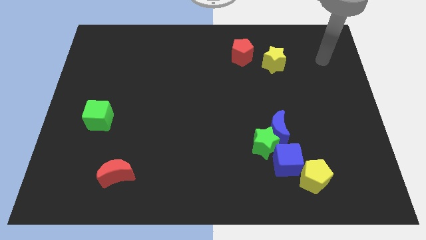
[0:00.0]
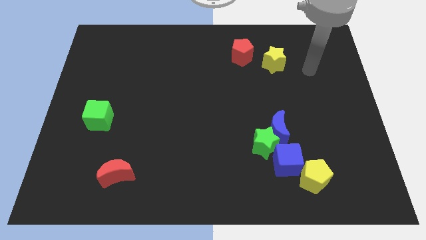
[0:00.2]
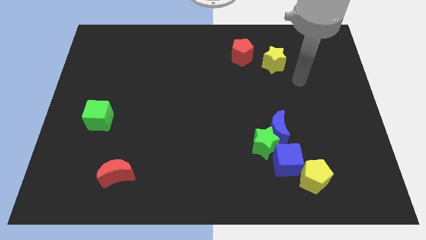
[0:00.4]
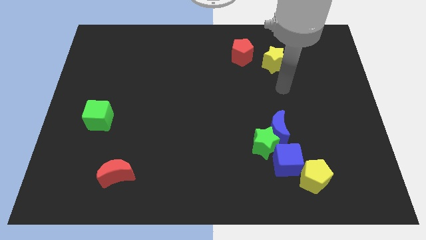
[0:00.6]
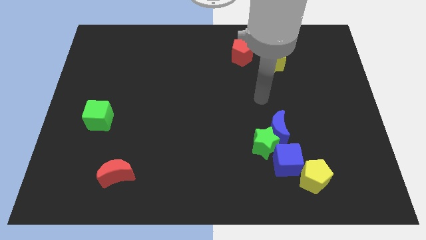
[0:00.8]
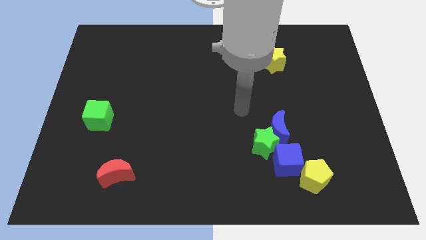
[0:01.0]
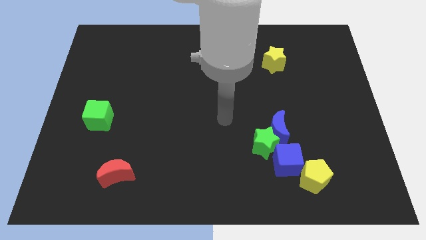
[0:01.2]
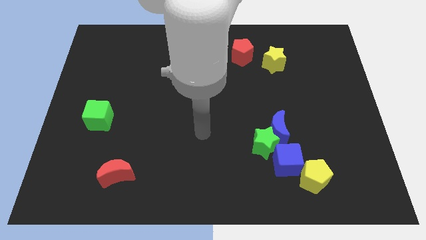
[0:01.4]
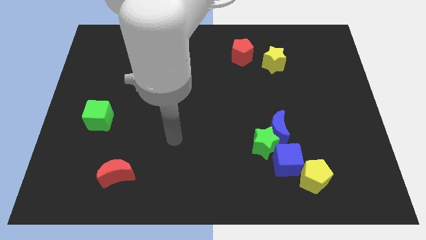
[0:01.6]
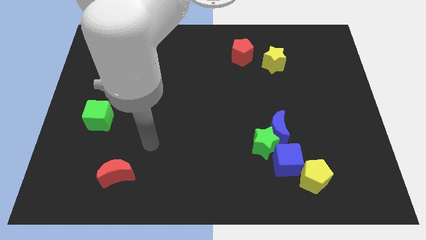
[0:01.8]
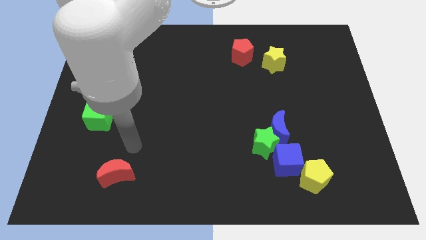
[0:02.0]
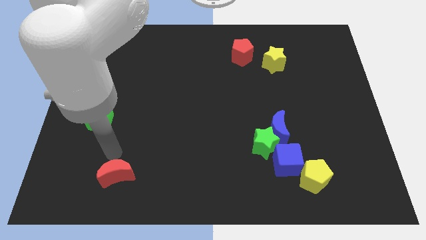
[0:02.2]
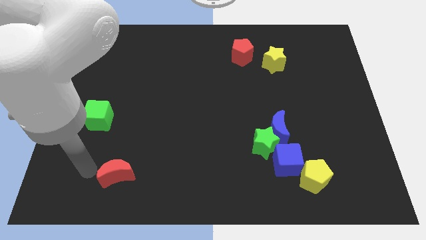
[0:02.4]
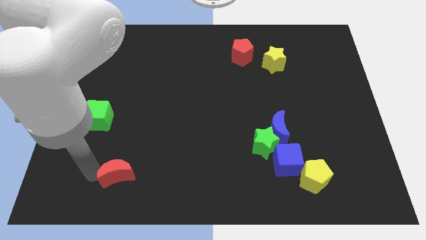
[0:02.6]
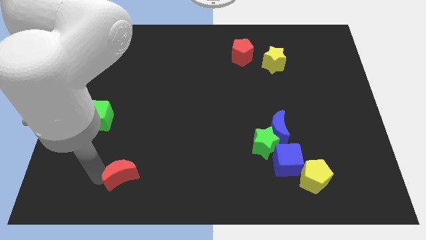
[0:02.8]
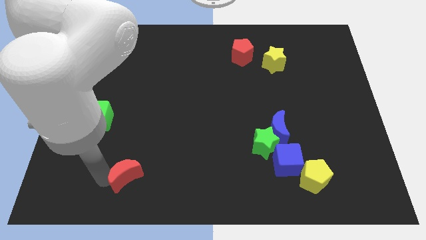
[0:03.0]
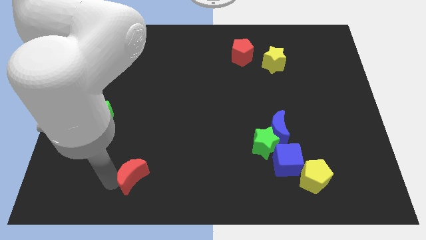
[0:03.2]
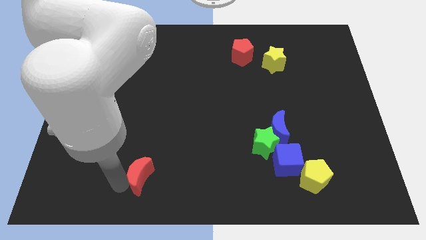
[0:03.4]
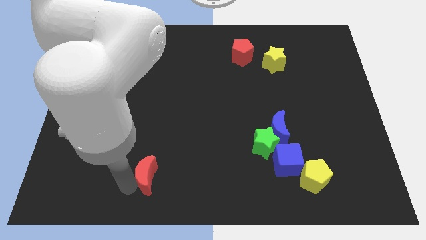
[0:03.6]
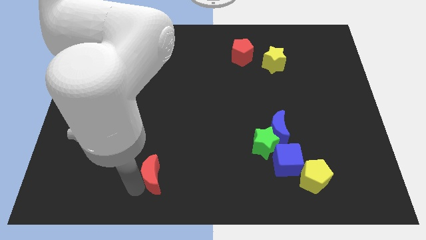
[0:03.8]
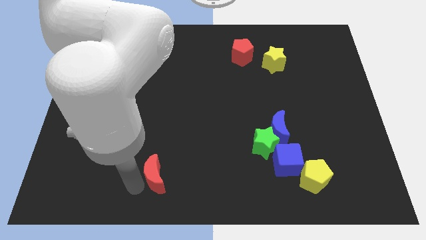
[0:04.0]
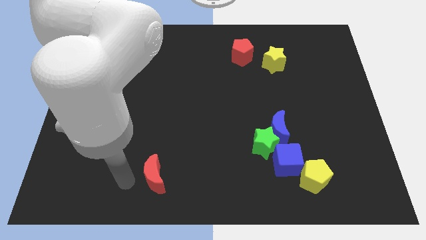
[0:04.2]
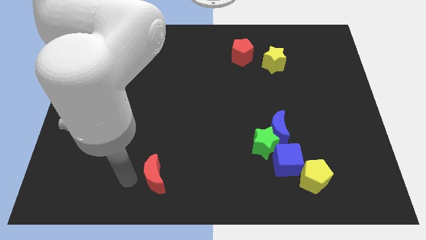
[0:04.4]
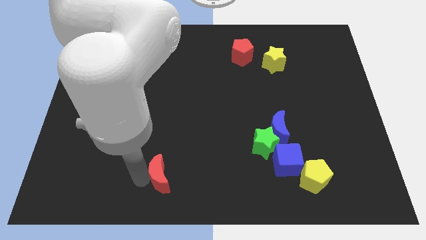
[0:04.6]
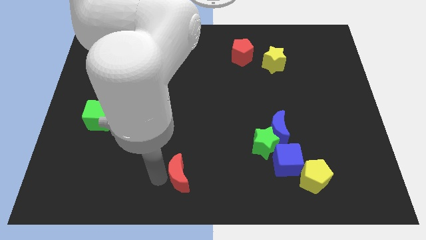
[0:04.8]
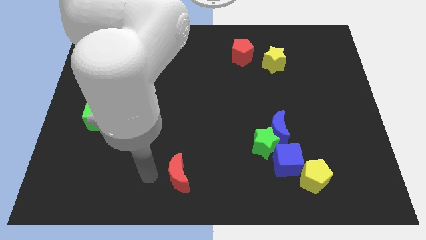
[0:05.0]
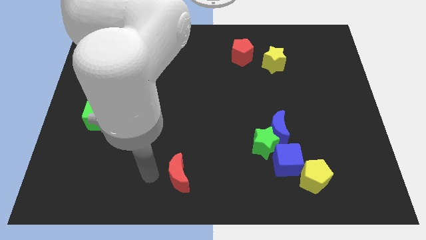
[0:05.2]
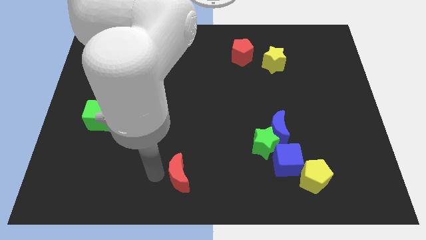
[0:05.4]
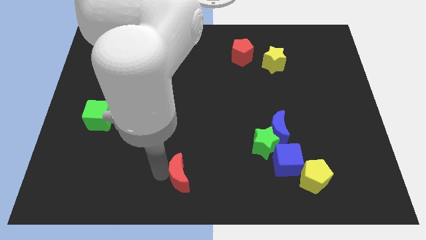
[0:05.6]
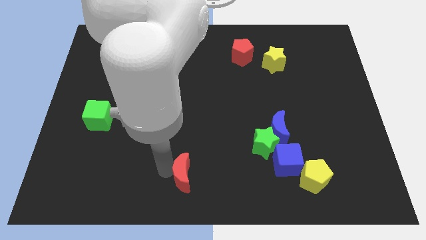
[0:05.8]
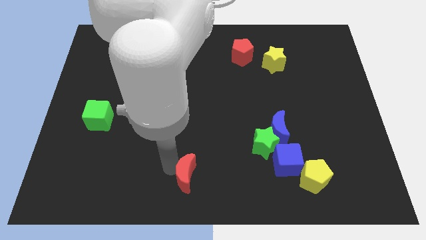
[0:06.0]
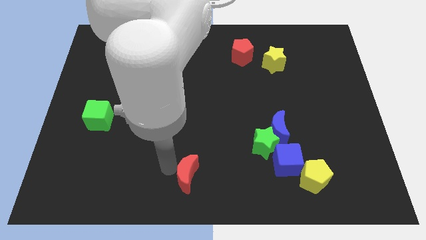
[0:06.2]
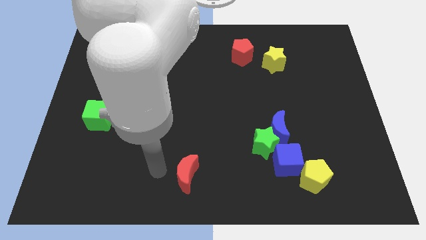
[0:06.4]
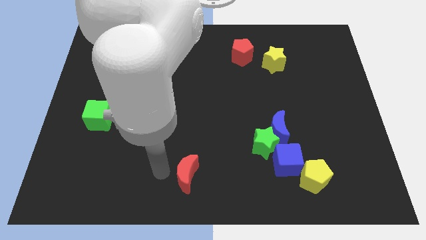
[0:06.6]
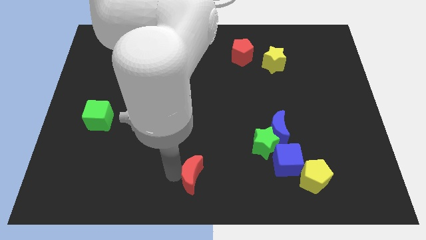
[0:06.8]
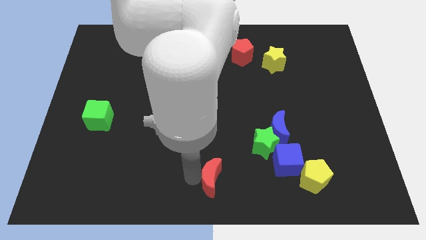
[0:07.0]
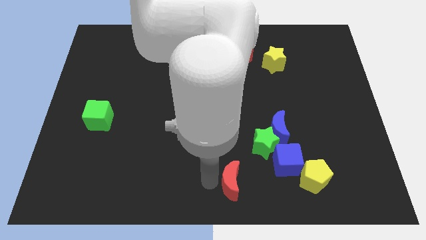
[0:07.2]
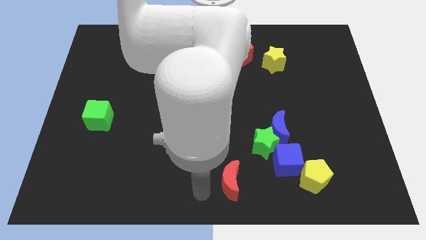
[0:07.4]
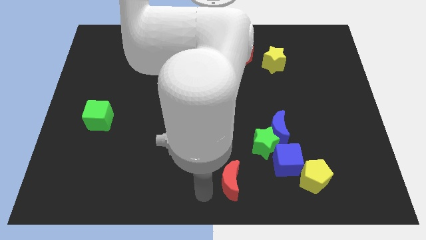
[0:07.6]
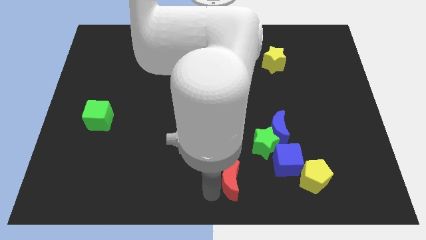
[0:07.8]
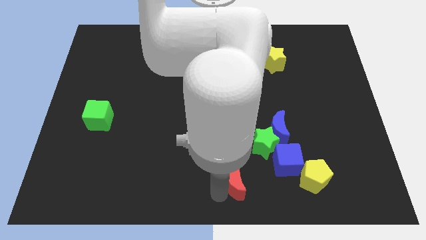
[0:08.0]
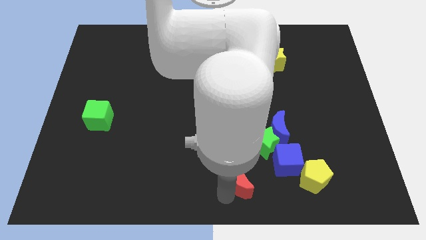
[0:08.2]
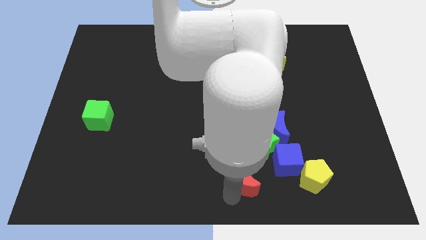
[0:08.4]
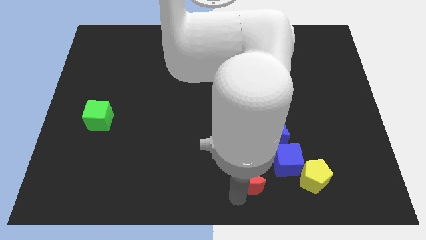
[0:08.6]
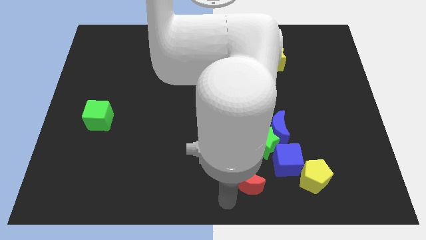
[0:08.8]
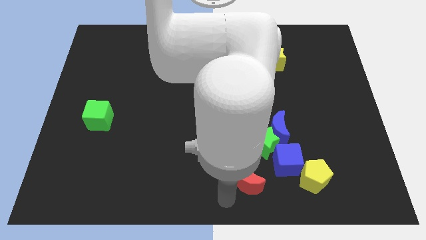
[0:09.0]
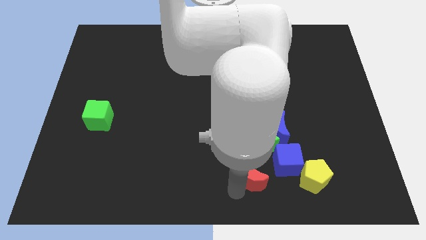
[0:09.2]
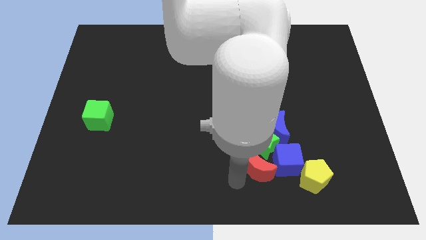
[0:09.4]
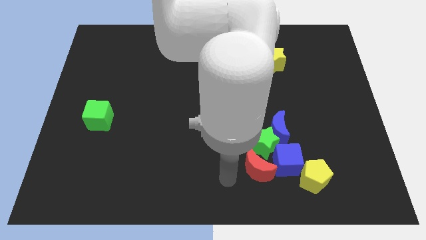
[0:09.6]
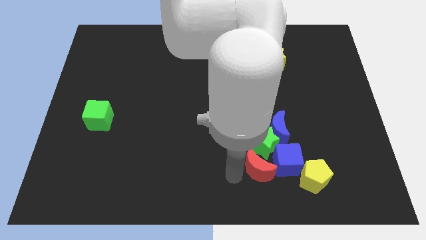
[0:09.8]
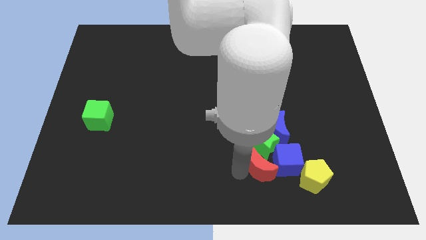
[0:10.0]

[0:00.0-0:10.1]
put the red moon to the blue cube

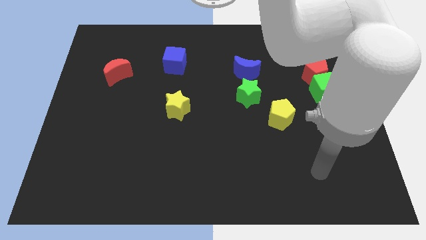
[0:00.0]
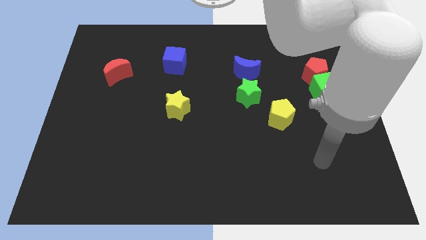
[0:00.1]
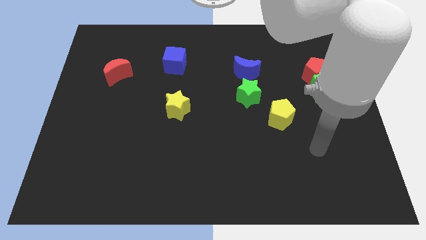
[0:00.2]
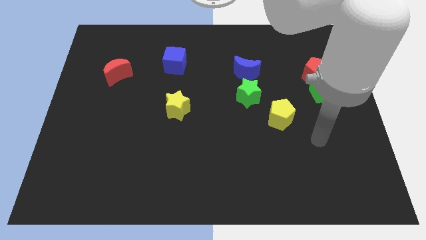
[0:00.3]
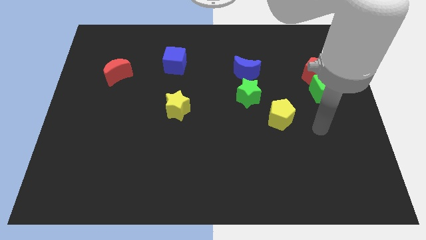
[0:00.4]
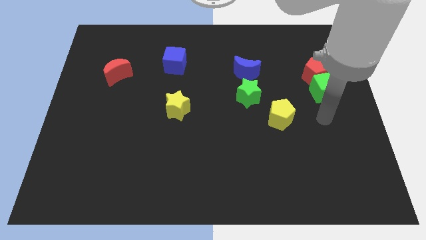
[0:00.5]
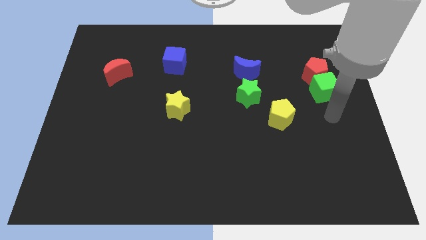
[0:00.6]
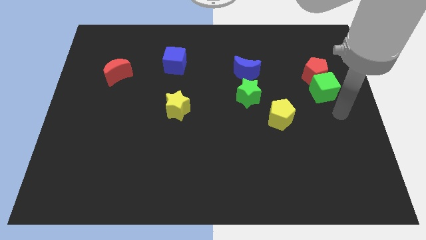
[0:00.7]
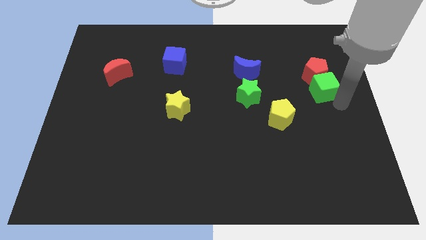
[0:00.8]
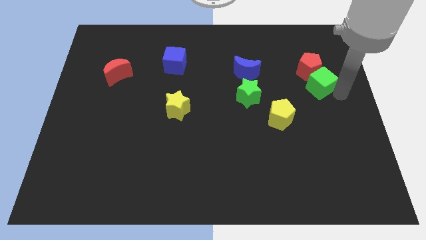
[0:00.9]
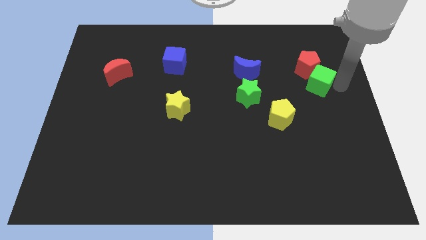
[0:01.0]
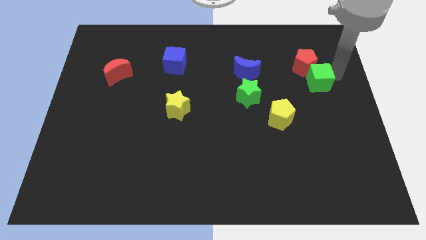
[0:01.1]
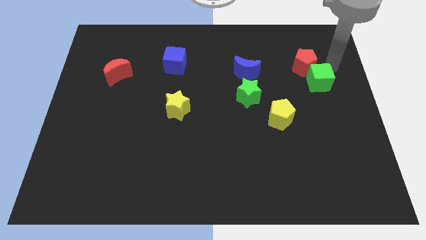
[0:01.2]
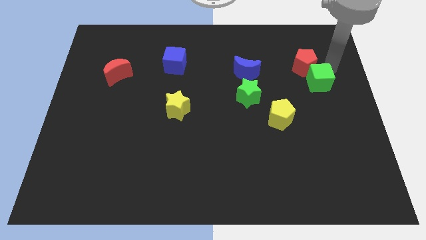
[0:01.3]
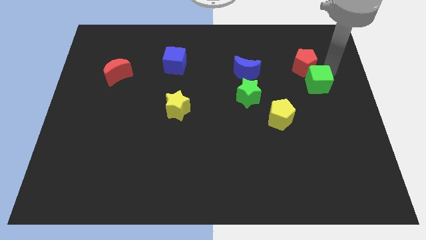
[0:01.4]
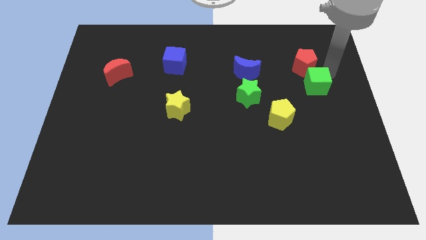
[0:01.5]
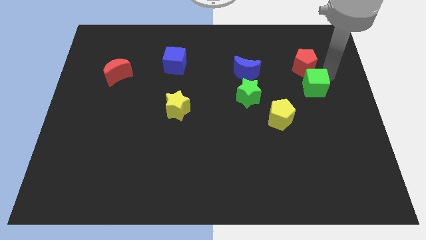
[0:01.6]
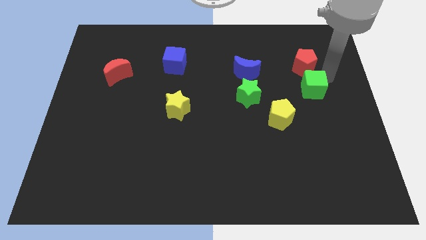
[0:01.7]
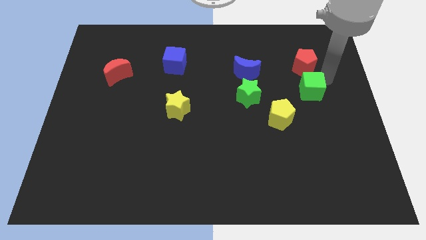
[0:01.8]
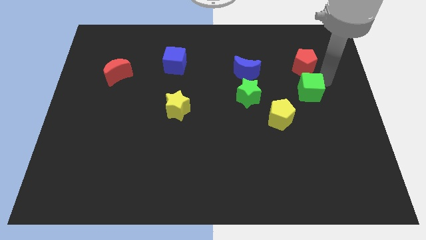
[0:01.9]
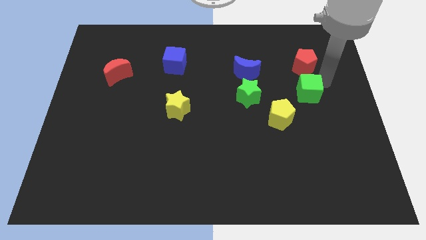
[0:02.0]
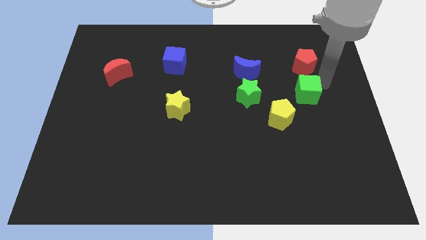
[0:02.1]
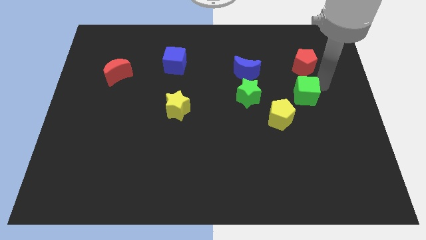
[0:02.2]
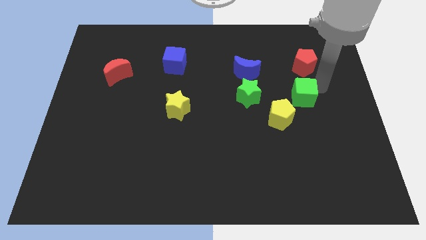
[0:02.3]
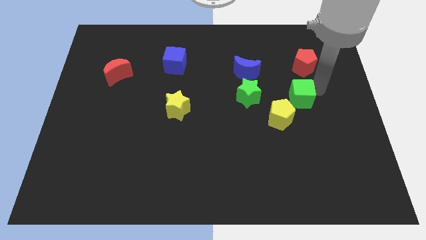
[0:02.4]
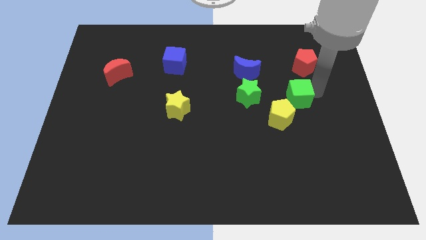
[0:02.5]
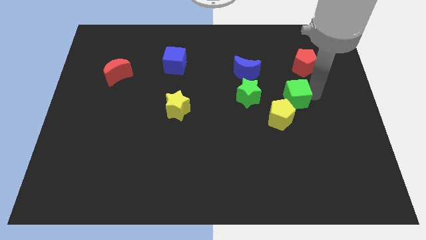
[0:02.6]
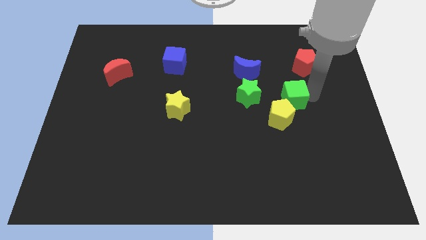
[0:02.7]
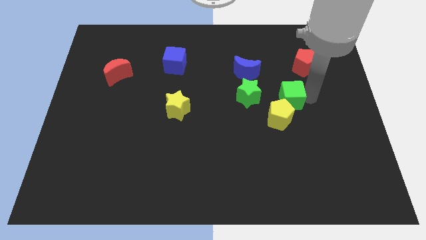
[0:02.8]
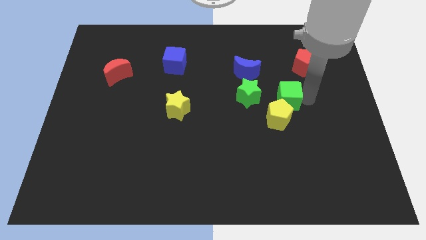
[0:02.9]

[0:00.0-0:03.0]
put the green cube to the yellow pentagon
